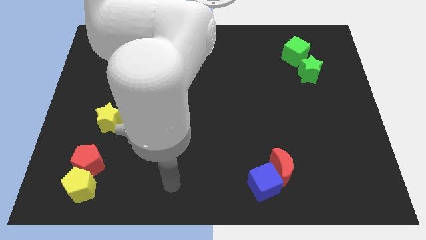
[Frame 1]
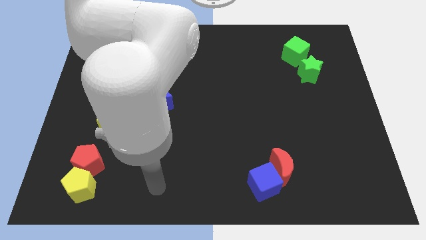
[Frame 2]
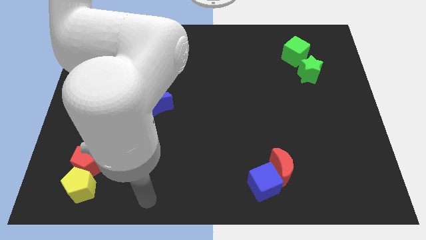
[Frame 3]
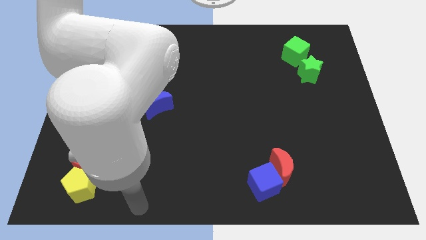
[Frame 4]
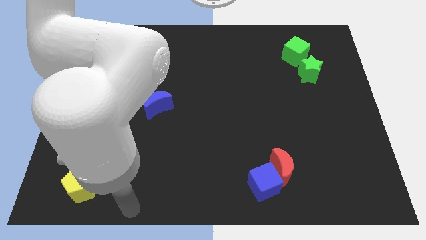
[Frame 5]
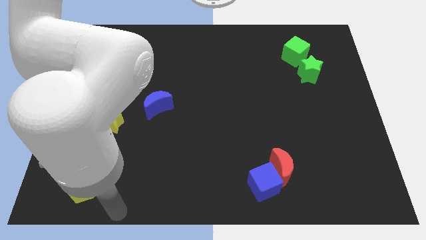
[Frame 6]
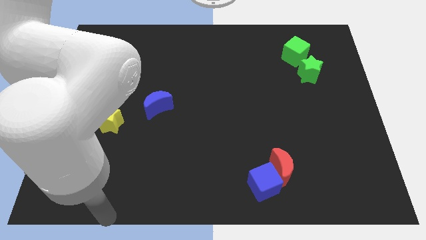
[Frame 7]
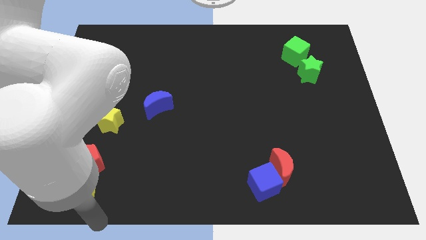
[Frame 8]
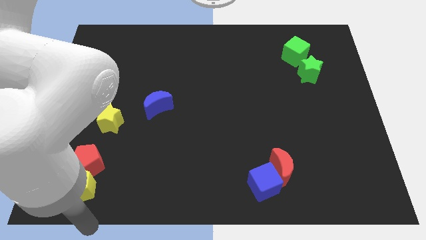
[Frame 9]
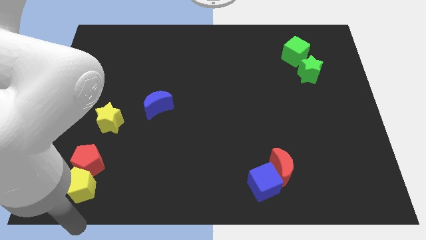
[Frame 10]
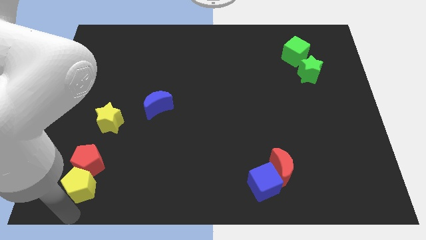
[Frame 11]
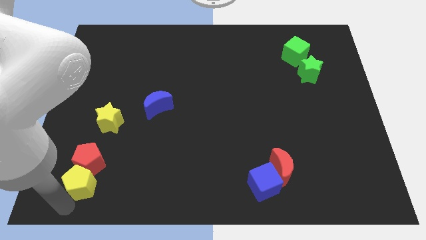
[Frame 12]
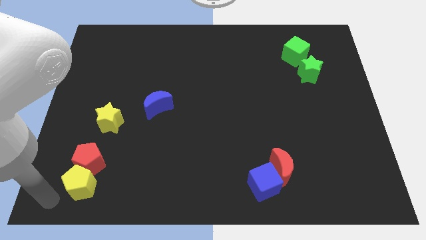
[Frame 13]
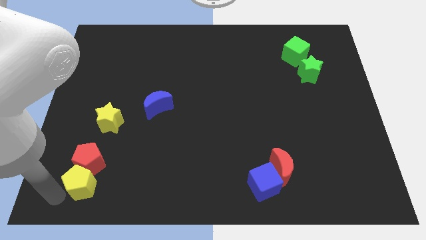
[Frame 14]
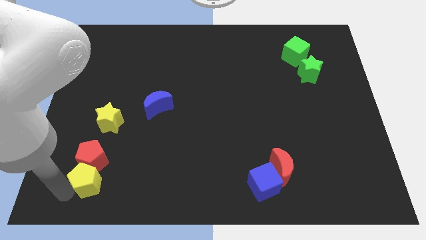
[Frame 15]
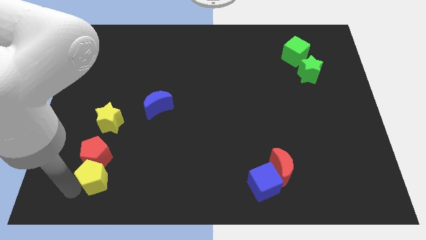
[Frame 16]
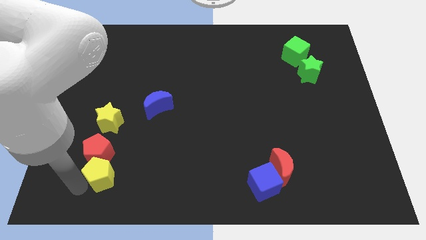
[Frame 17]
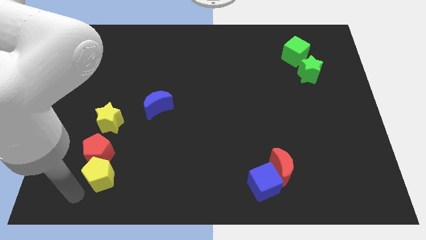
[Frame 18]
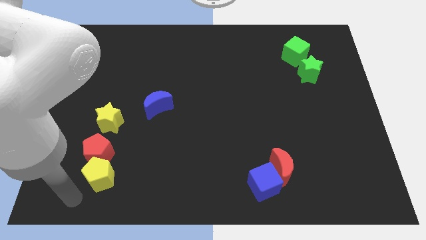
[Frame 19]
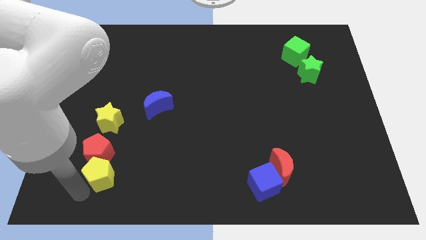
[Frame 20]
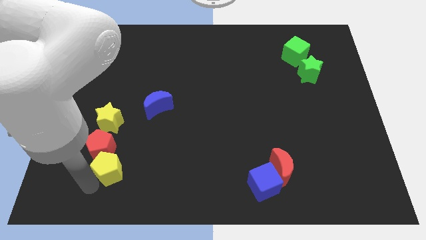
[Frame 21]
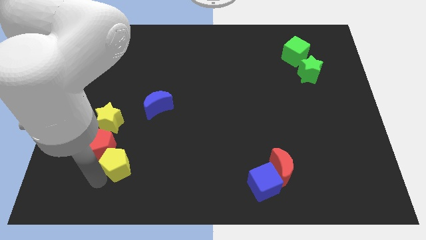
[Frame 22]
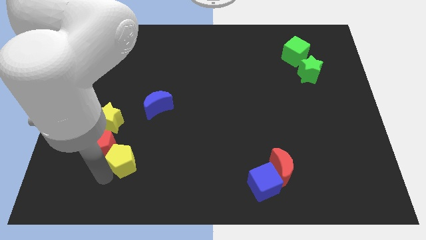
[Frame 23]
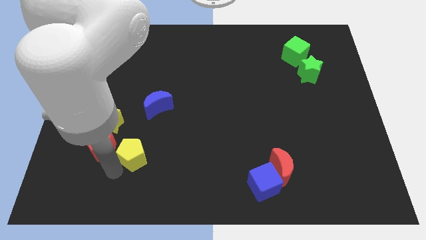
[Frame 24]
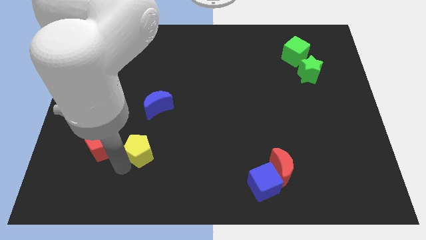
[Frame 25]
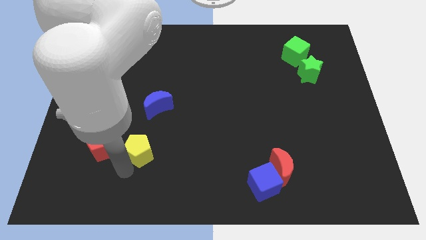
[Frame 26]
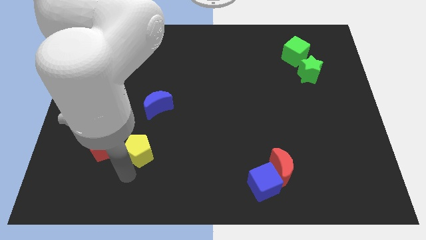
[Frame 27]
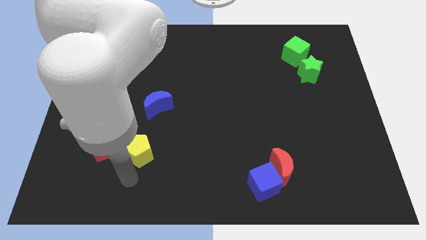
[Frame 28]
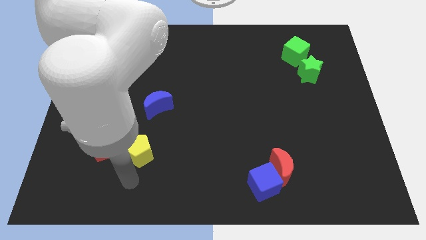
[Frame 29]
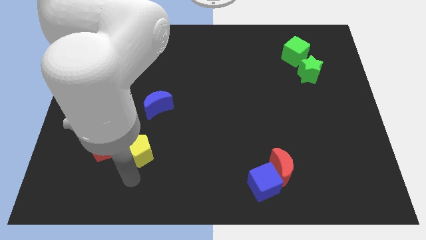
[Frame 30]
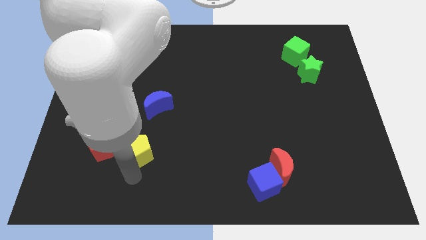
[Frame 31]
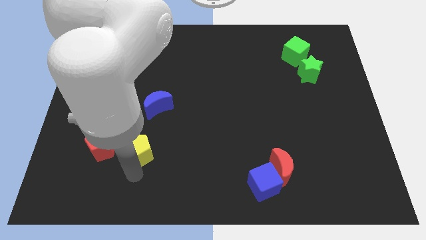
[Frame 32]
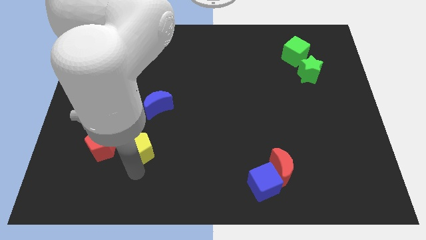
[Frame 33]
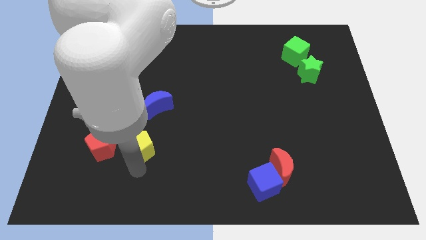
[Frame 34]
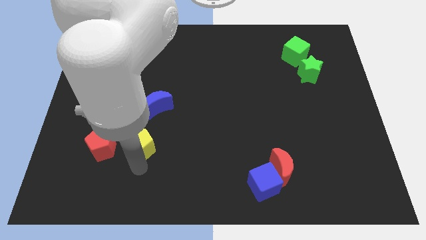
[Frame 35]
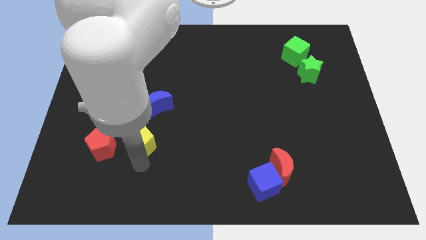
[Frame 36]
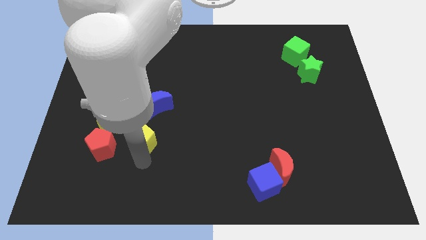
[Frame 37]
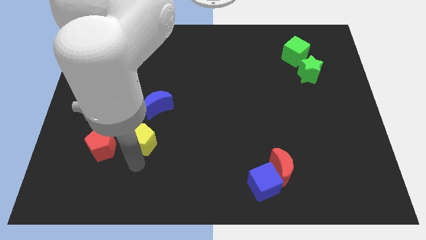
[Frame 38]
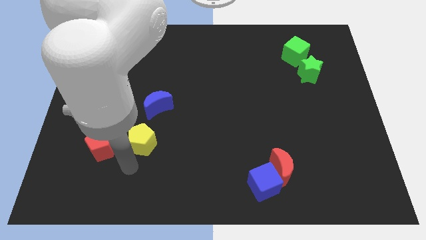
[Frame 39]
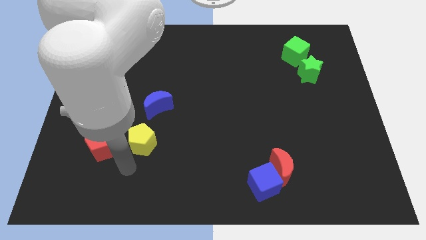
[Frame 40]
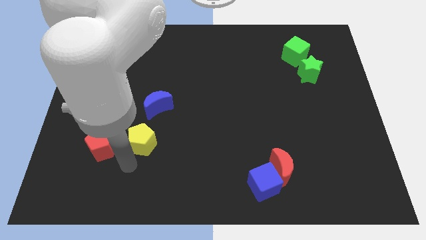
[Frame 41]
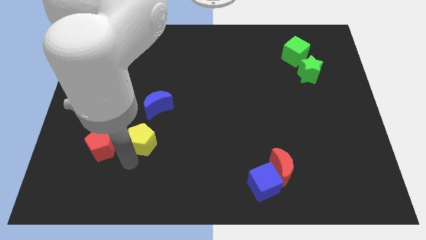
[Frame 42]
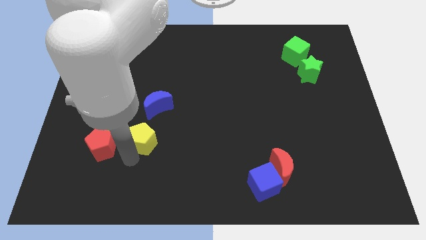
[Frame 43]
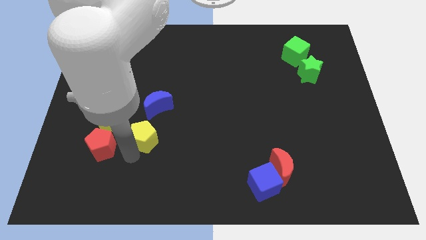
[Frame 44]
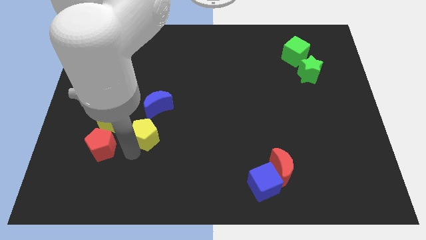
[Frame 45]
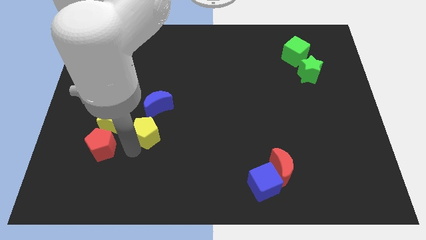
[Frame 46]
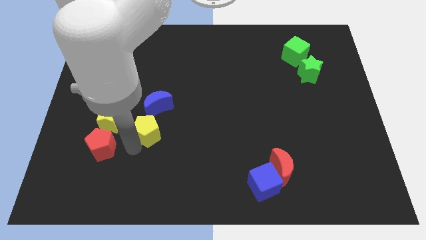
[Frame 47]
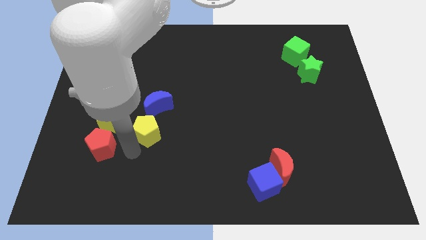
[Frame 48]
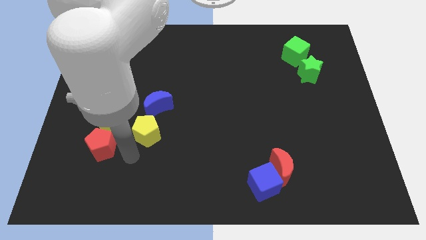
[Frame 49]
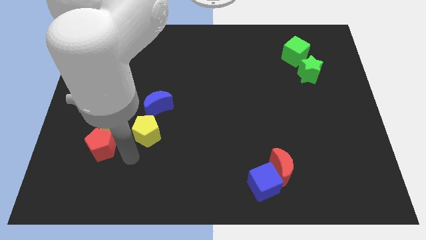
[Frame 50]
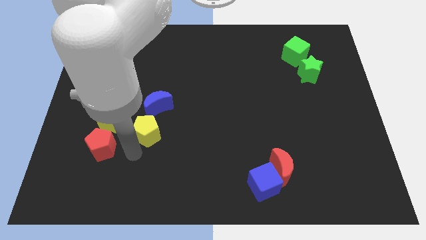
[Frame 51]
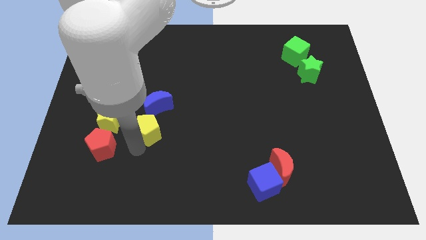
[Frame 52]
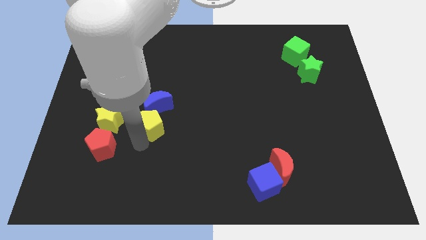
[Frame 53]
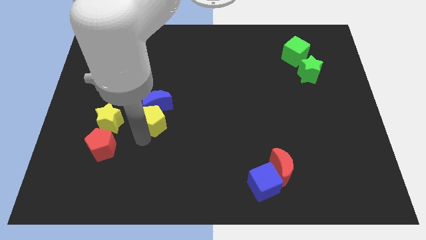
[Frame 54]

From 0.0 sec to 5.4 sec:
slide the yellow pentagon up and right diagonally

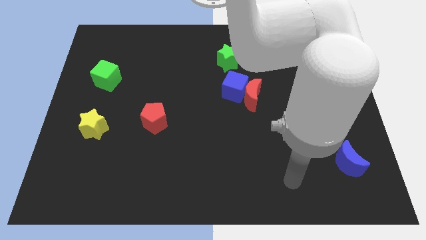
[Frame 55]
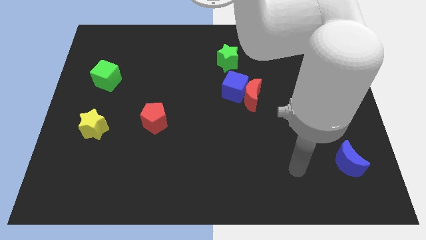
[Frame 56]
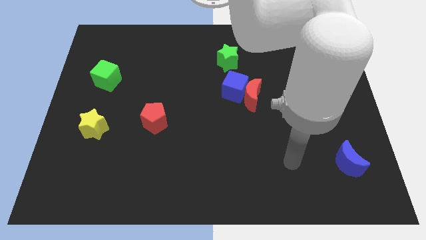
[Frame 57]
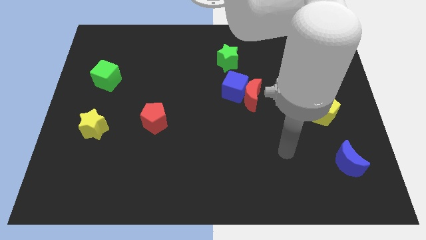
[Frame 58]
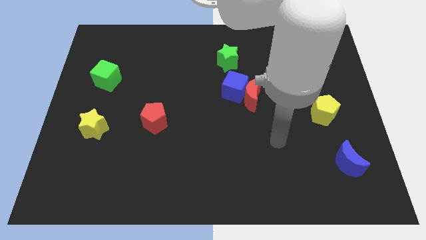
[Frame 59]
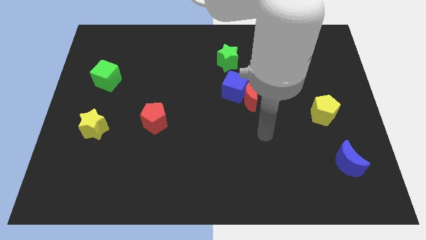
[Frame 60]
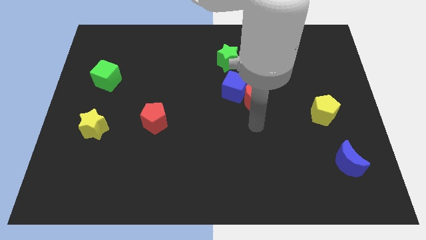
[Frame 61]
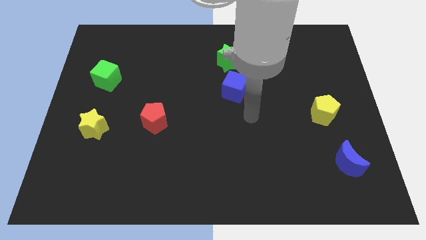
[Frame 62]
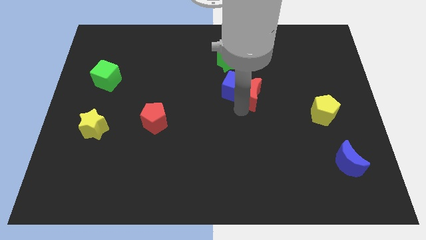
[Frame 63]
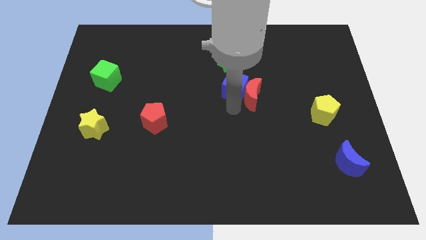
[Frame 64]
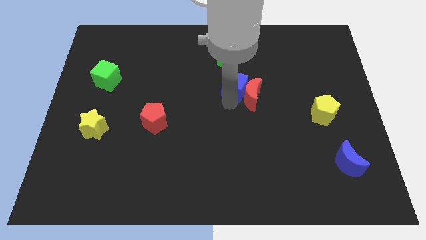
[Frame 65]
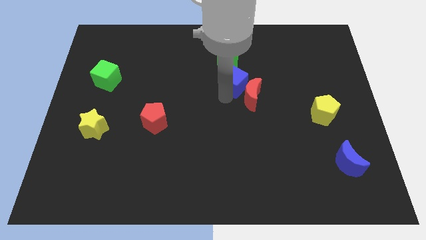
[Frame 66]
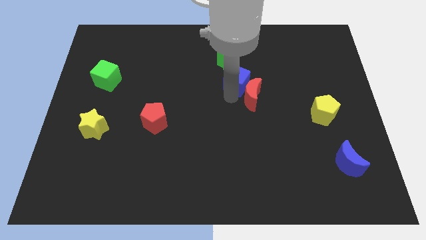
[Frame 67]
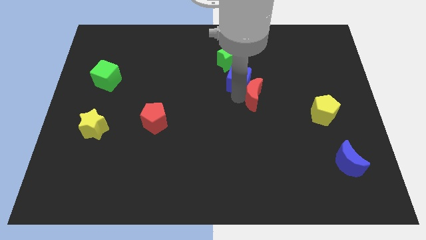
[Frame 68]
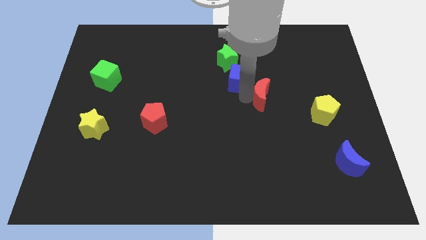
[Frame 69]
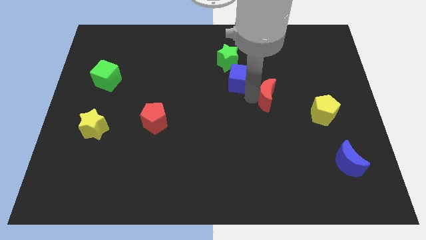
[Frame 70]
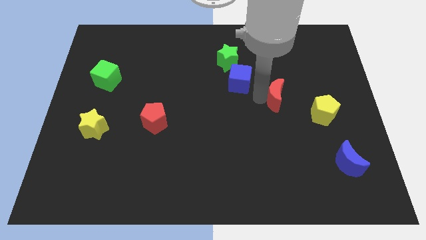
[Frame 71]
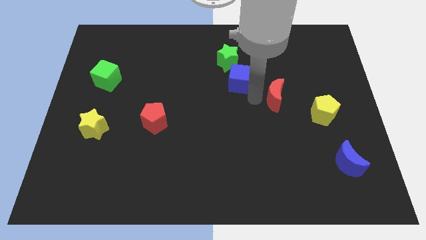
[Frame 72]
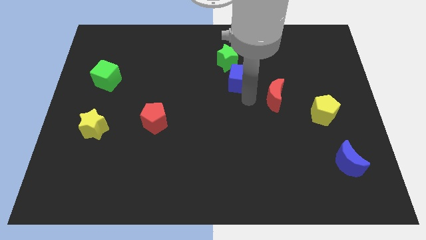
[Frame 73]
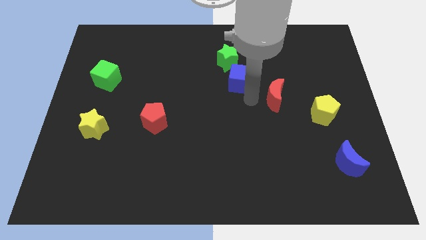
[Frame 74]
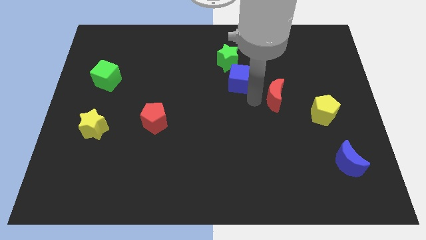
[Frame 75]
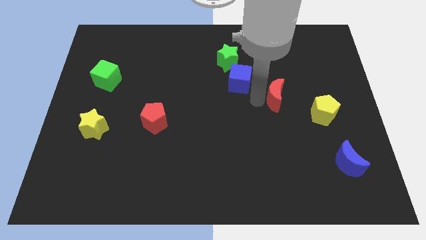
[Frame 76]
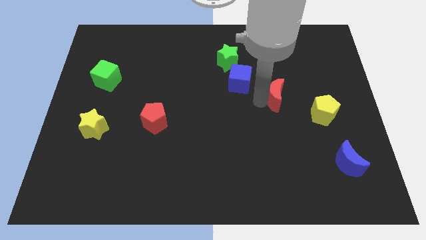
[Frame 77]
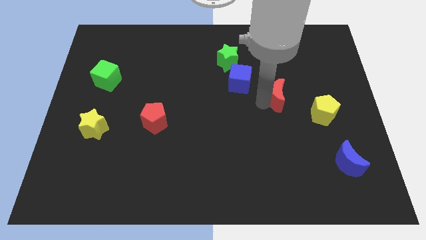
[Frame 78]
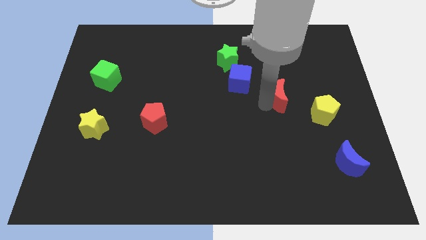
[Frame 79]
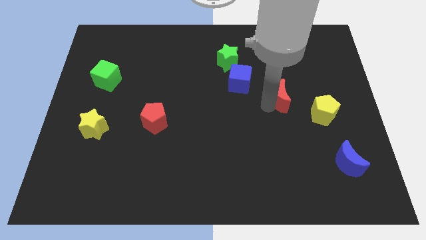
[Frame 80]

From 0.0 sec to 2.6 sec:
slide the red moon to the right a little

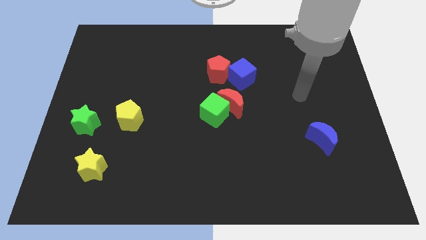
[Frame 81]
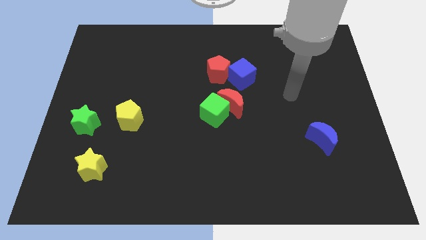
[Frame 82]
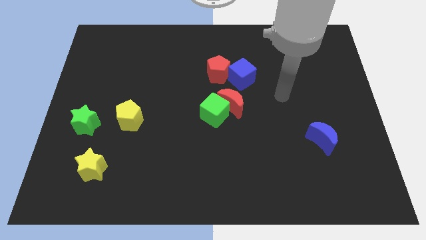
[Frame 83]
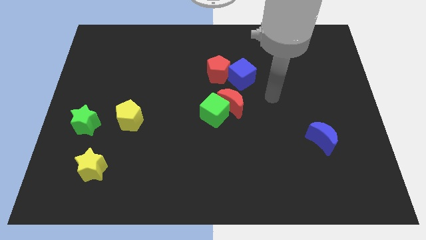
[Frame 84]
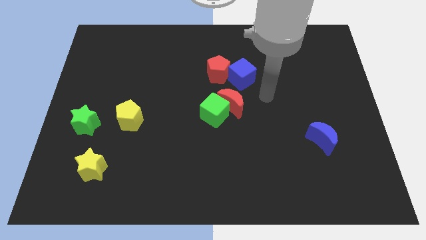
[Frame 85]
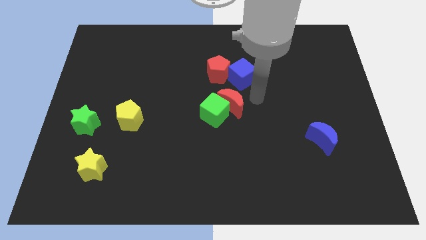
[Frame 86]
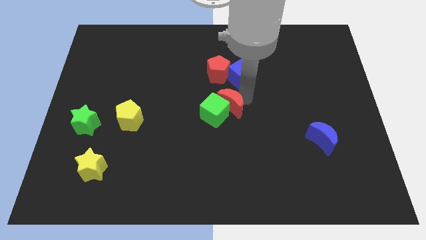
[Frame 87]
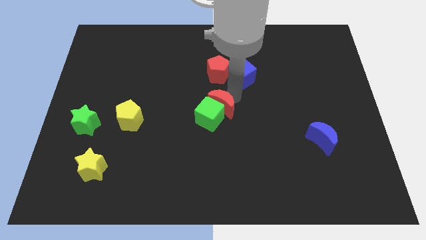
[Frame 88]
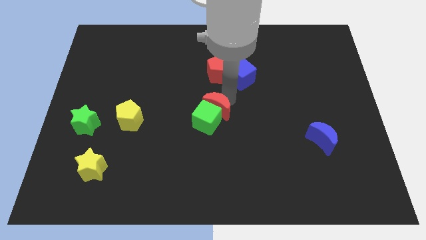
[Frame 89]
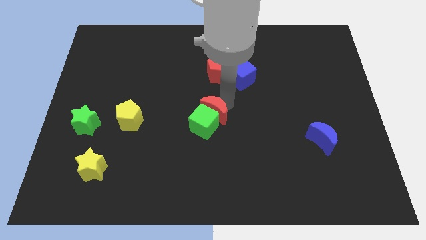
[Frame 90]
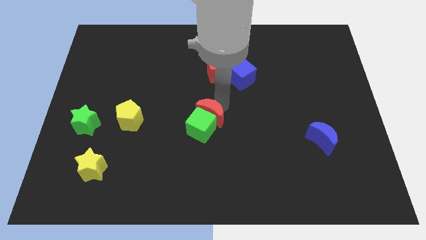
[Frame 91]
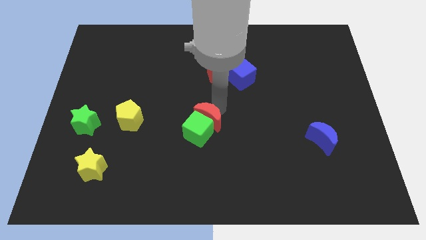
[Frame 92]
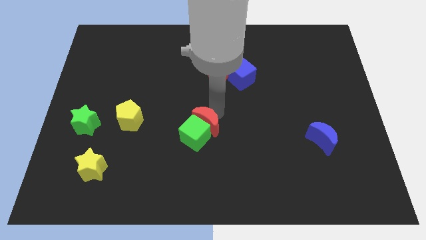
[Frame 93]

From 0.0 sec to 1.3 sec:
slightly slide the green cube downwards and to the left diagonally
